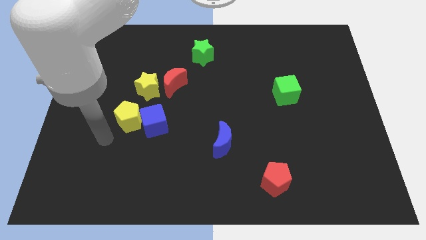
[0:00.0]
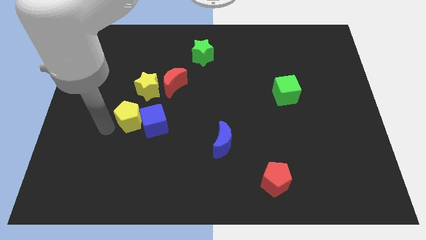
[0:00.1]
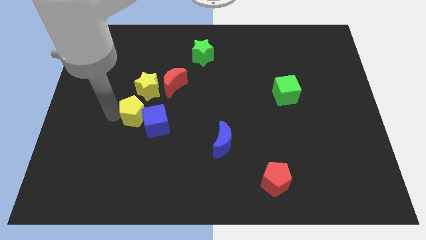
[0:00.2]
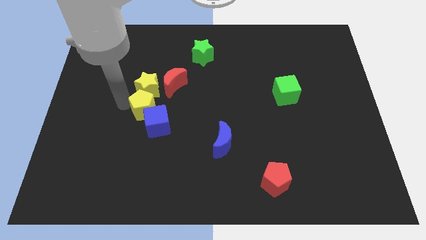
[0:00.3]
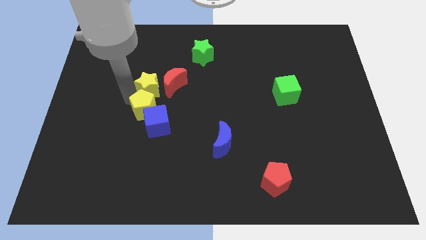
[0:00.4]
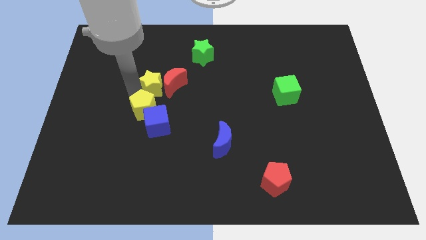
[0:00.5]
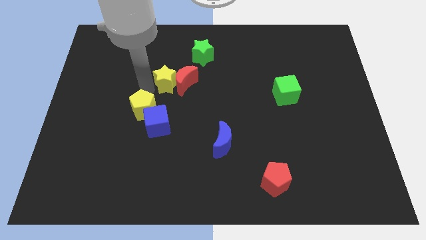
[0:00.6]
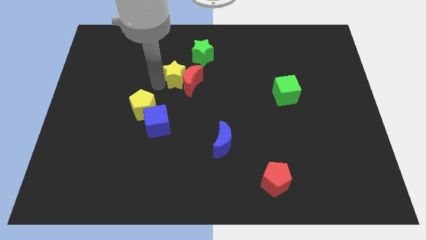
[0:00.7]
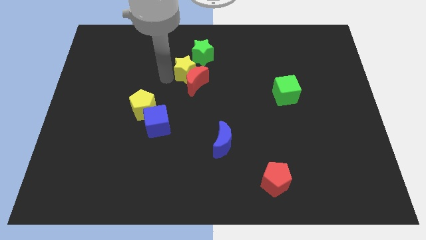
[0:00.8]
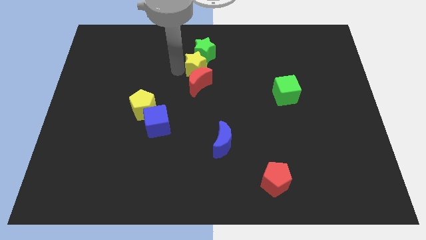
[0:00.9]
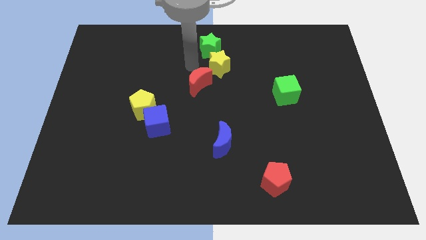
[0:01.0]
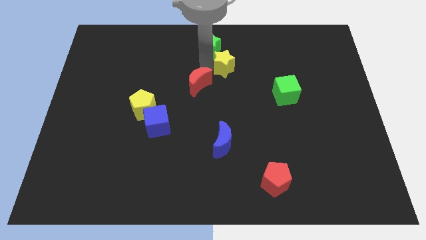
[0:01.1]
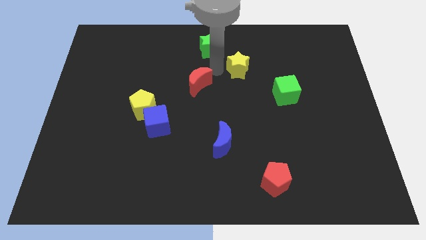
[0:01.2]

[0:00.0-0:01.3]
separate the red moon from the yellow star

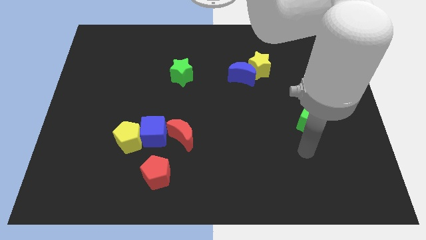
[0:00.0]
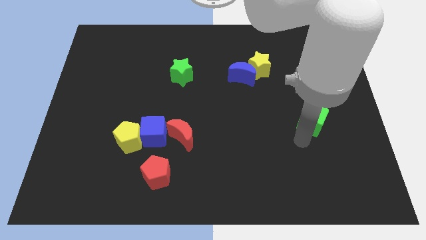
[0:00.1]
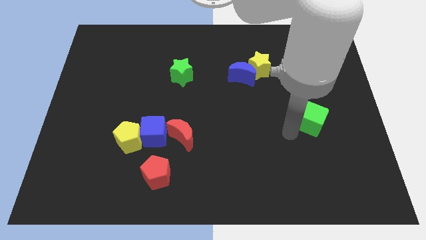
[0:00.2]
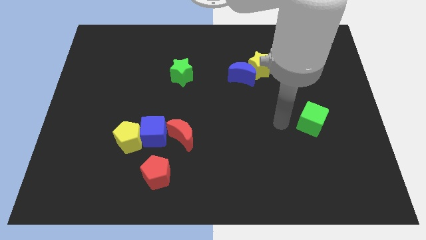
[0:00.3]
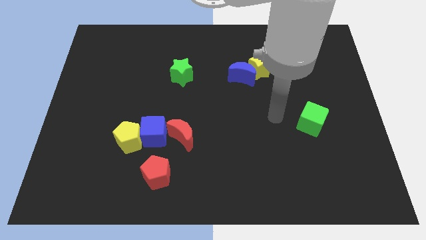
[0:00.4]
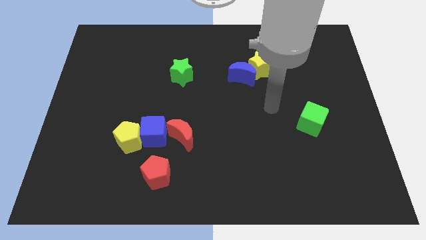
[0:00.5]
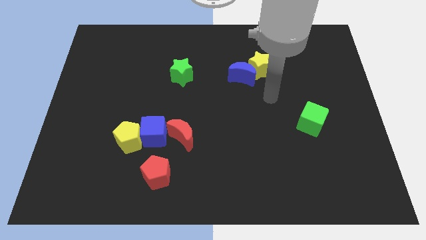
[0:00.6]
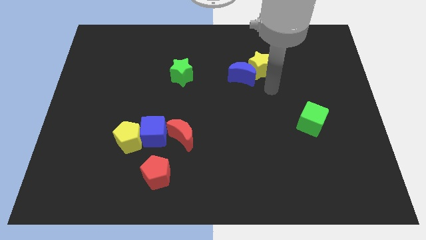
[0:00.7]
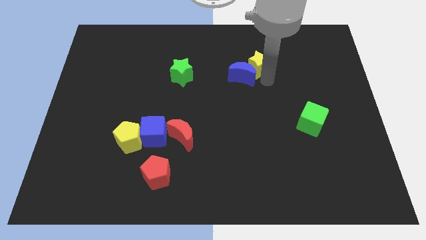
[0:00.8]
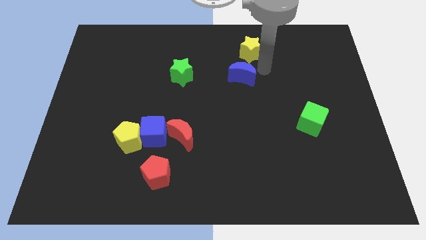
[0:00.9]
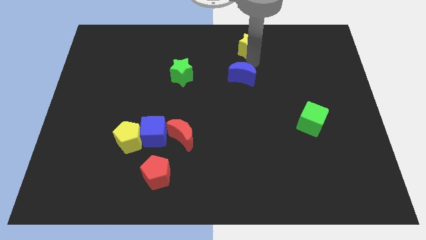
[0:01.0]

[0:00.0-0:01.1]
separate the blue moon from the yellow star

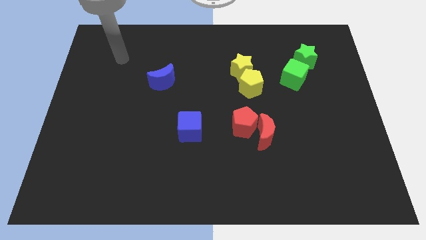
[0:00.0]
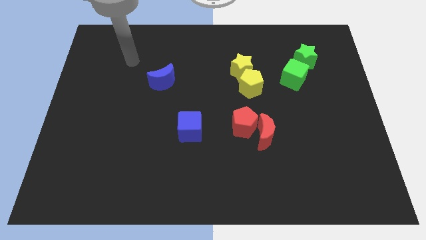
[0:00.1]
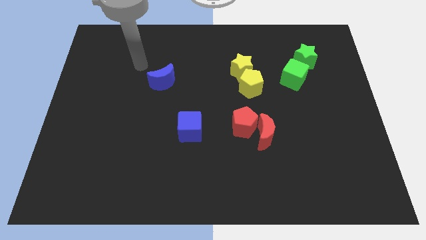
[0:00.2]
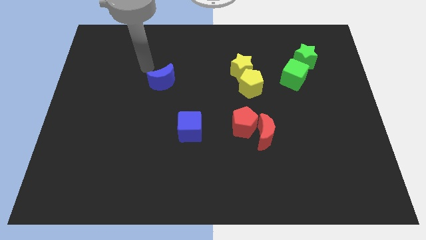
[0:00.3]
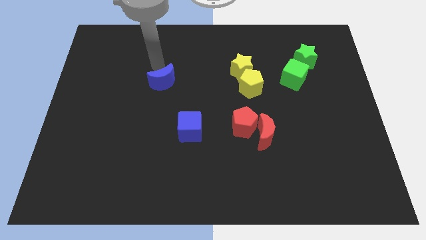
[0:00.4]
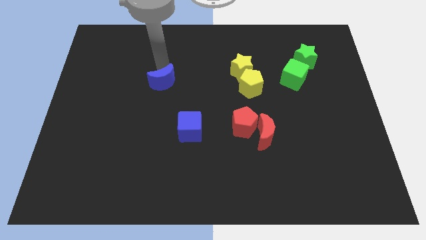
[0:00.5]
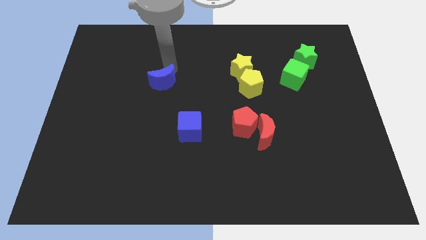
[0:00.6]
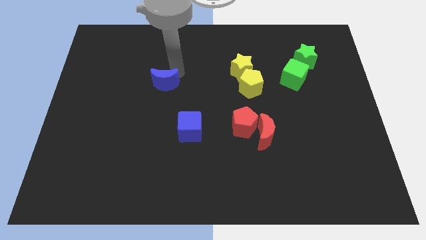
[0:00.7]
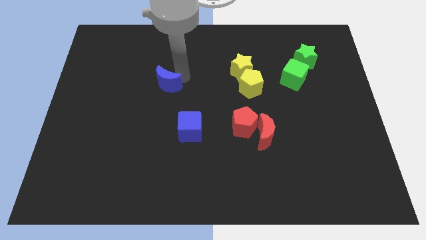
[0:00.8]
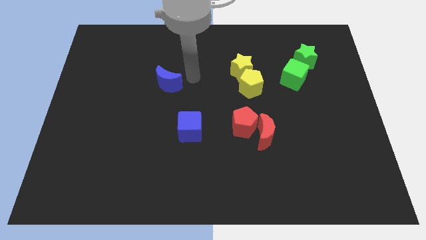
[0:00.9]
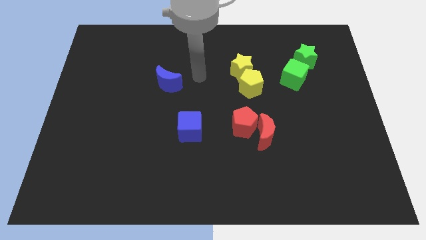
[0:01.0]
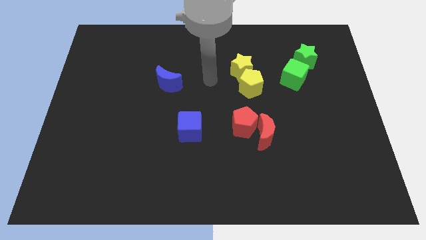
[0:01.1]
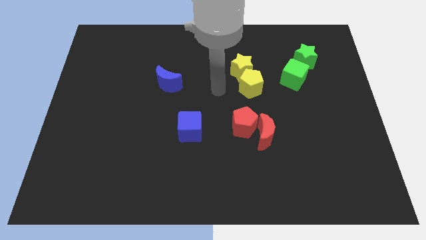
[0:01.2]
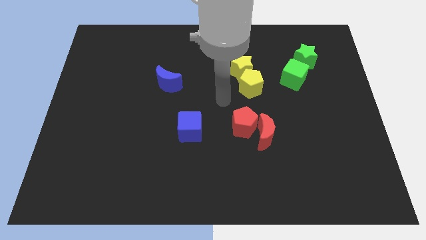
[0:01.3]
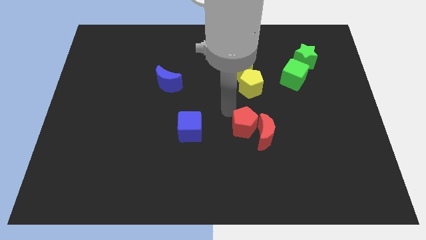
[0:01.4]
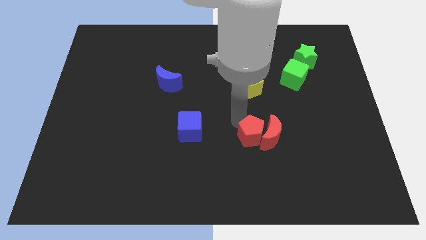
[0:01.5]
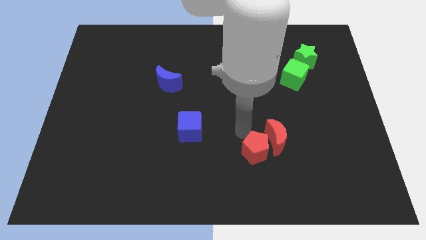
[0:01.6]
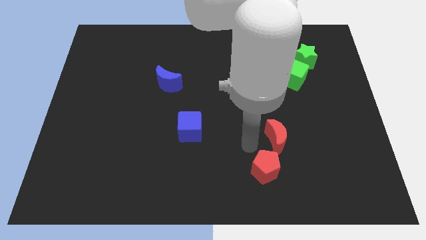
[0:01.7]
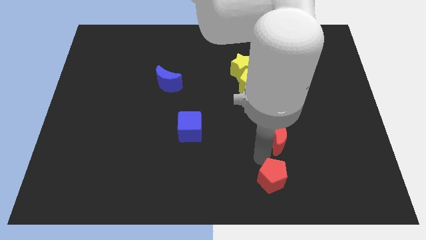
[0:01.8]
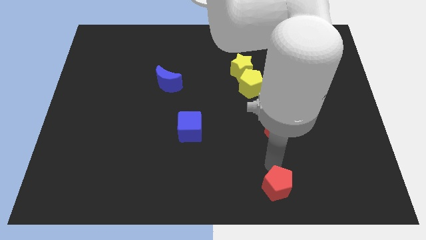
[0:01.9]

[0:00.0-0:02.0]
pull the red moon apart from the red pentagon

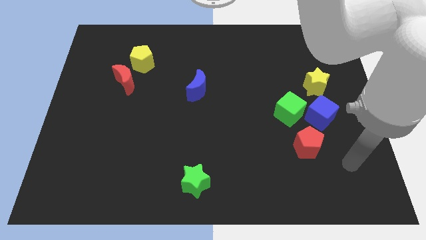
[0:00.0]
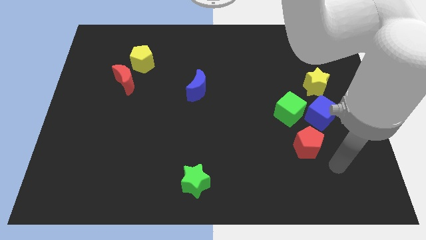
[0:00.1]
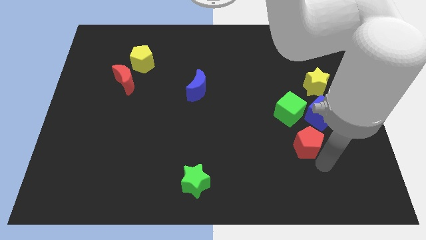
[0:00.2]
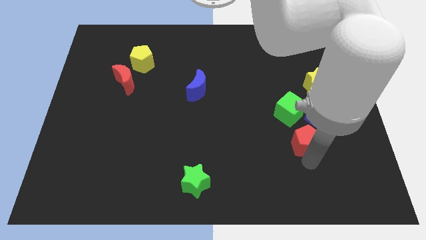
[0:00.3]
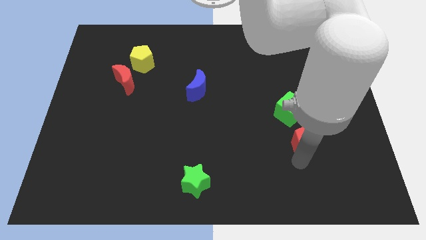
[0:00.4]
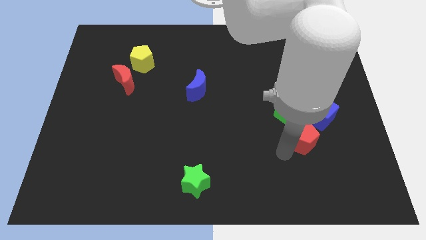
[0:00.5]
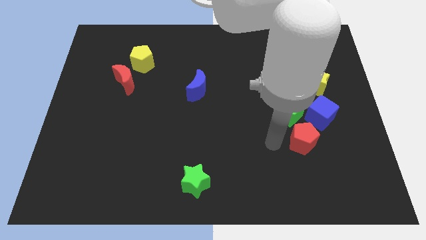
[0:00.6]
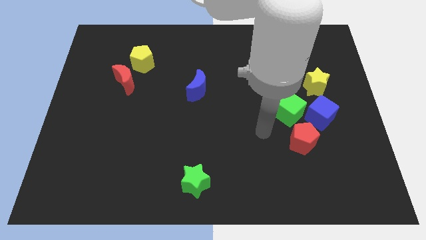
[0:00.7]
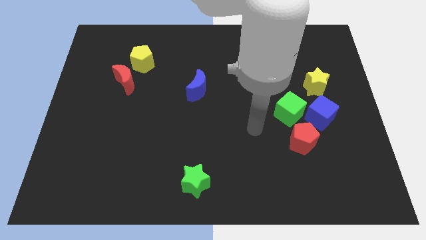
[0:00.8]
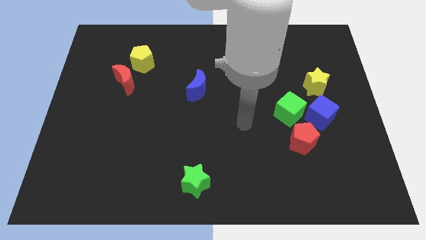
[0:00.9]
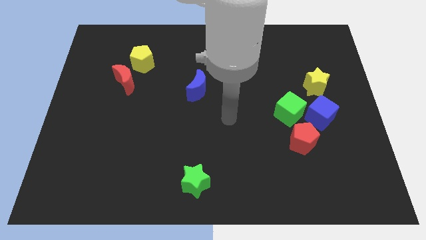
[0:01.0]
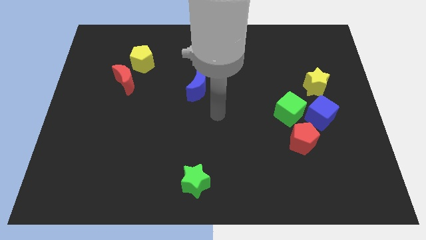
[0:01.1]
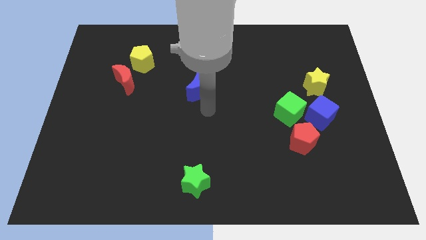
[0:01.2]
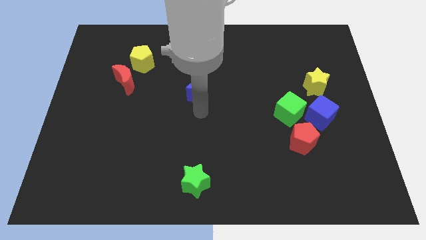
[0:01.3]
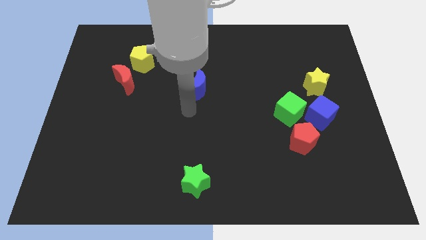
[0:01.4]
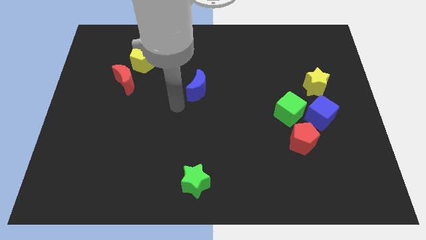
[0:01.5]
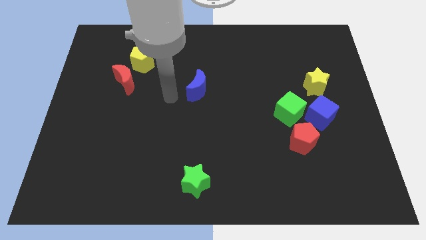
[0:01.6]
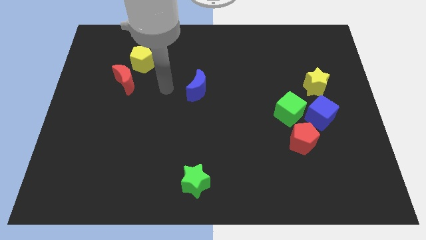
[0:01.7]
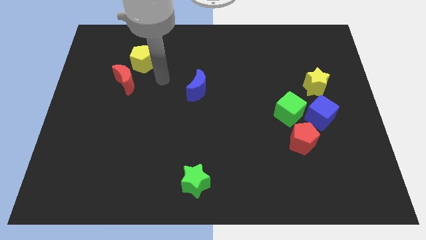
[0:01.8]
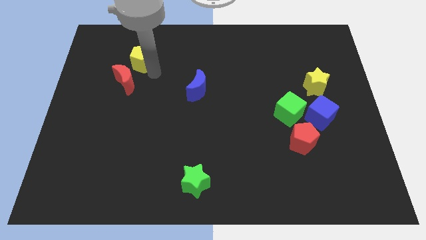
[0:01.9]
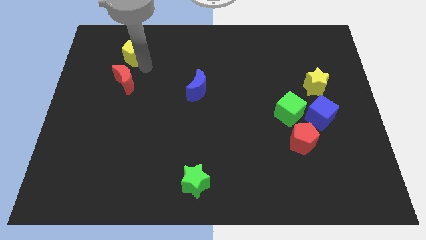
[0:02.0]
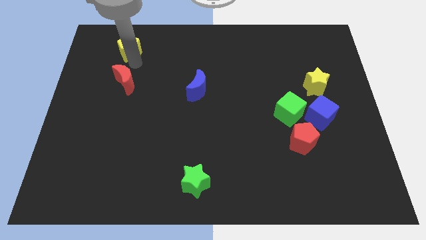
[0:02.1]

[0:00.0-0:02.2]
pull the red moon apart from the yellow pentagon

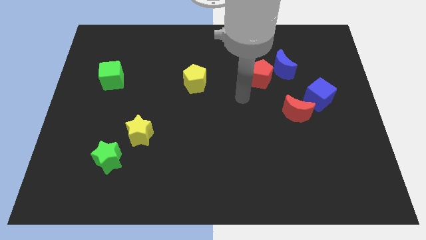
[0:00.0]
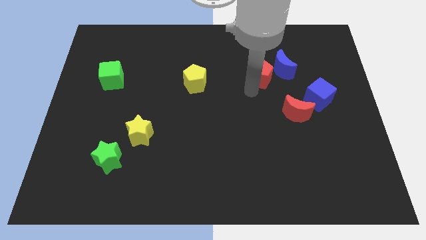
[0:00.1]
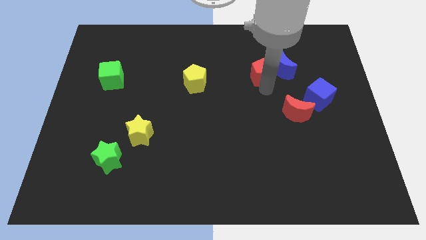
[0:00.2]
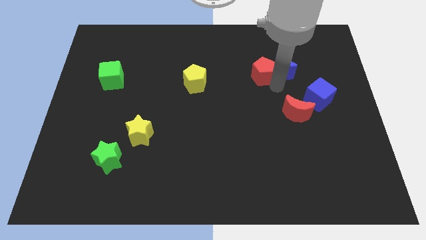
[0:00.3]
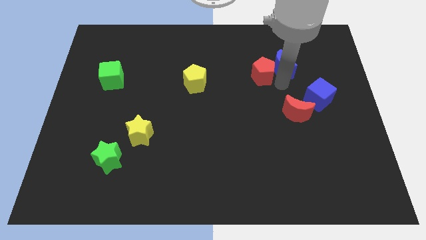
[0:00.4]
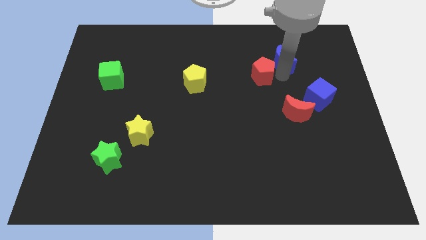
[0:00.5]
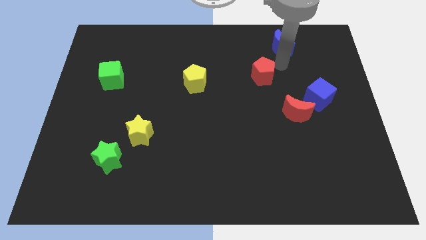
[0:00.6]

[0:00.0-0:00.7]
pull the red pentagon apart from the blue moon

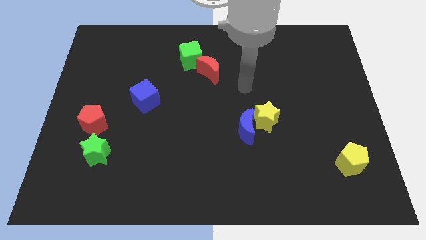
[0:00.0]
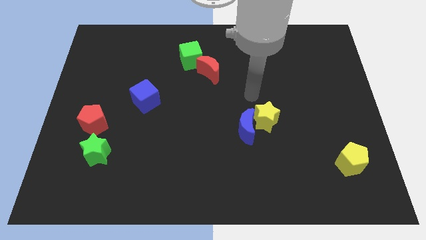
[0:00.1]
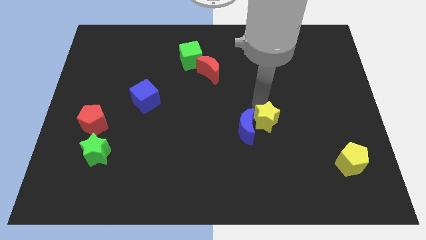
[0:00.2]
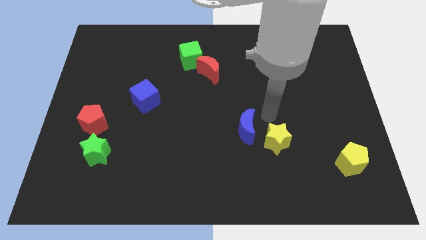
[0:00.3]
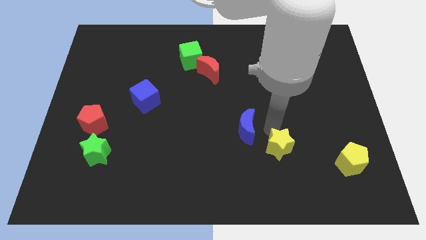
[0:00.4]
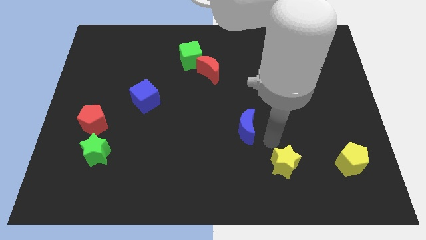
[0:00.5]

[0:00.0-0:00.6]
move the blue moon away from the yellow star

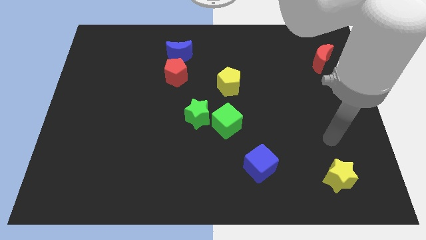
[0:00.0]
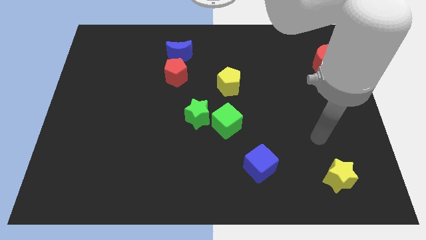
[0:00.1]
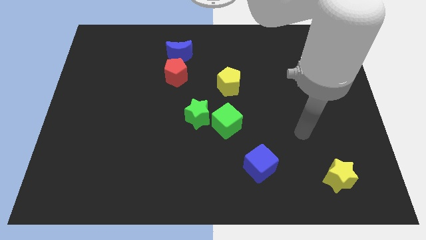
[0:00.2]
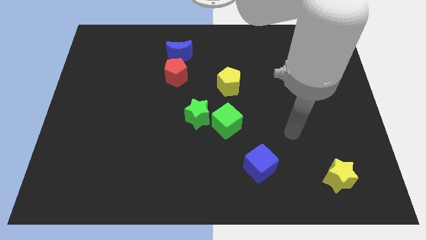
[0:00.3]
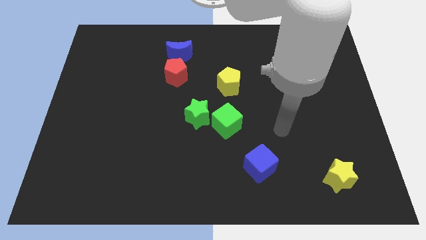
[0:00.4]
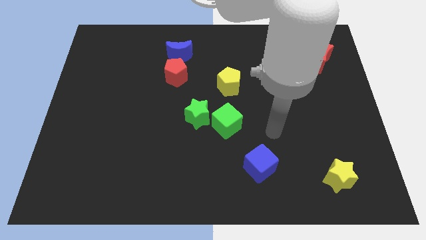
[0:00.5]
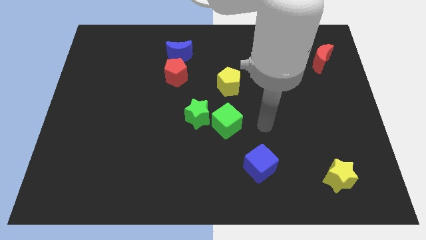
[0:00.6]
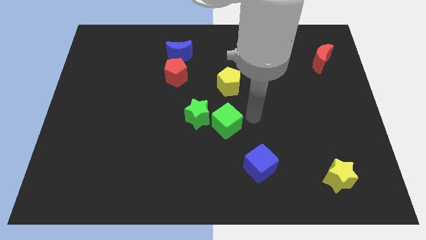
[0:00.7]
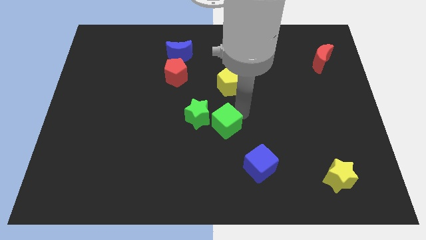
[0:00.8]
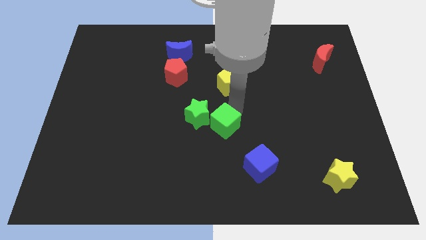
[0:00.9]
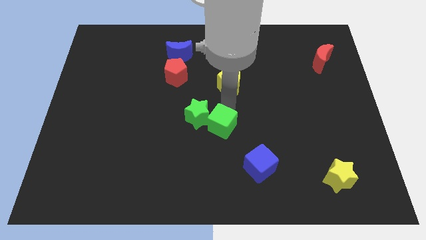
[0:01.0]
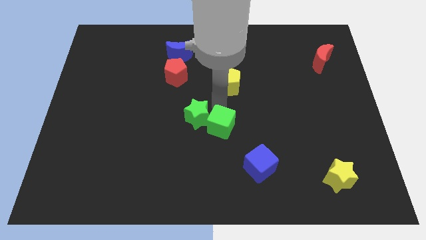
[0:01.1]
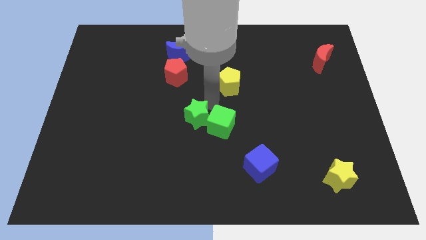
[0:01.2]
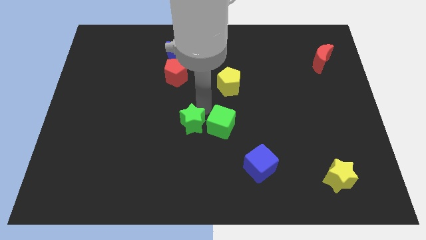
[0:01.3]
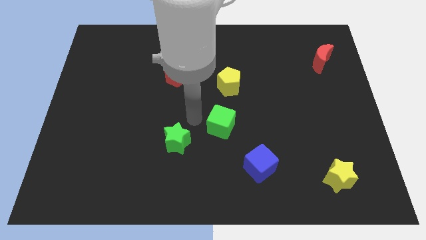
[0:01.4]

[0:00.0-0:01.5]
move the green cube away from the green star

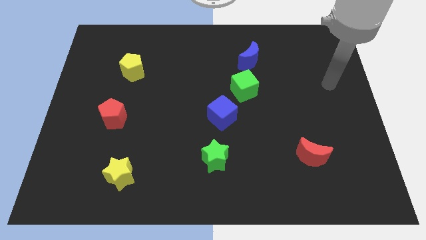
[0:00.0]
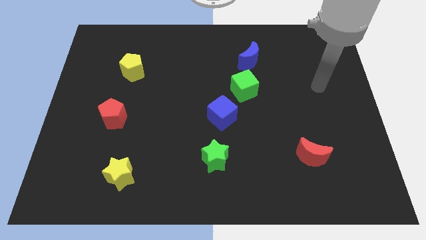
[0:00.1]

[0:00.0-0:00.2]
pull the blue cube apart from the green cube
